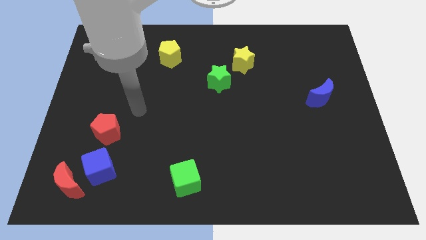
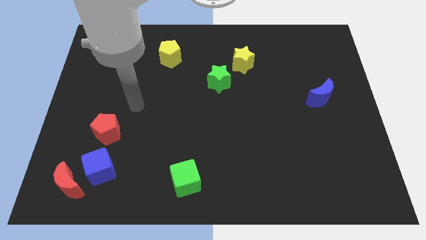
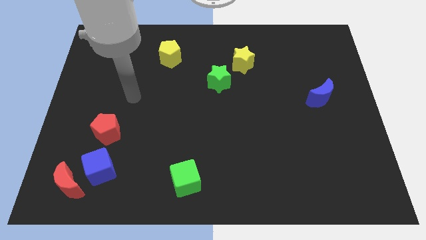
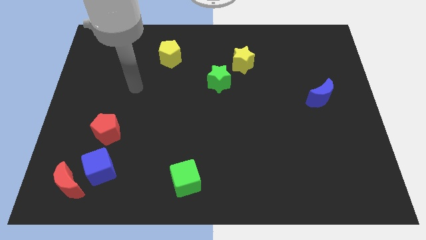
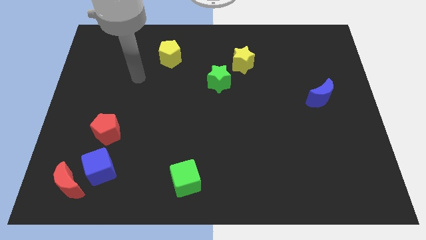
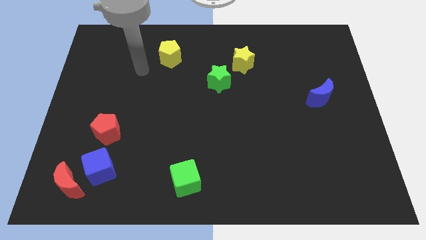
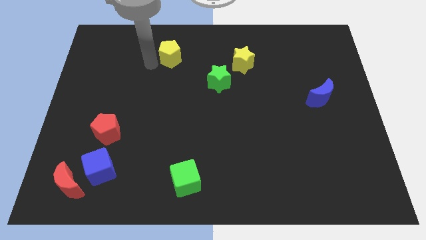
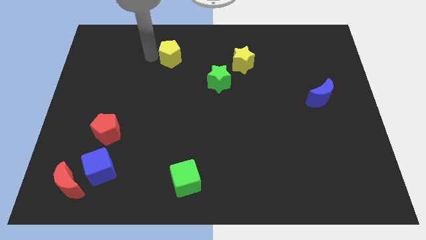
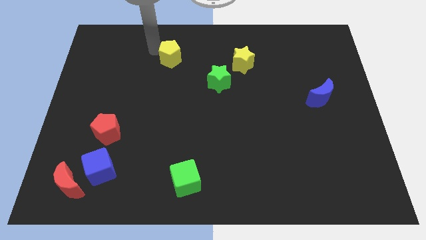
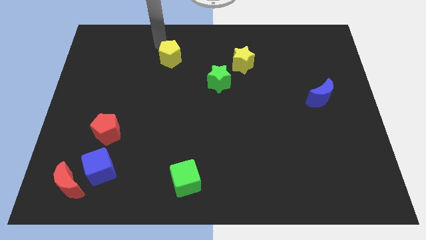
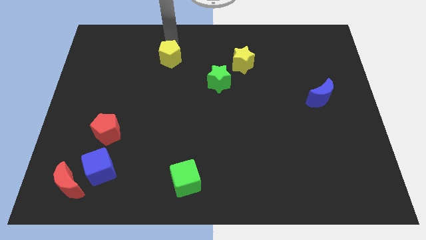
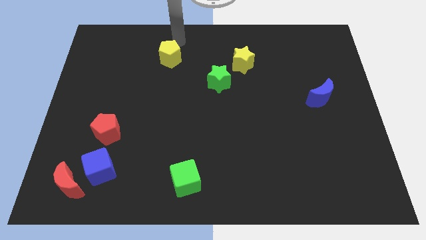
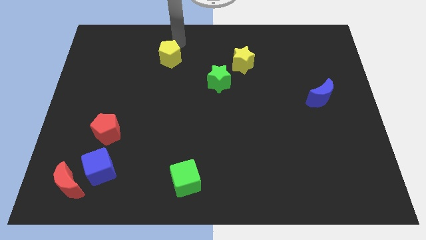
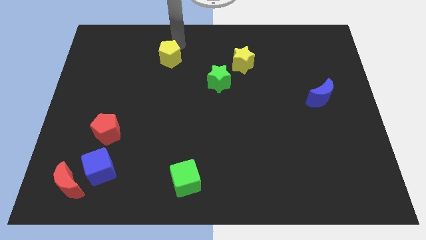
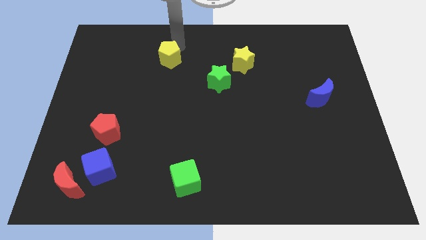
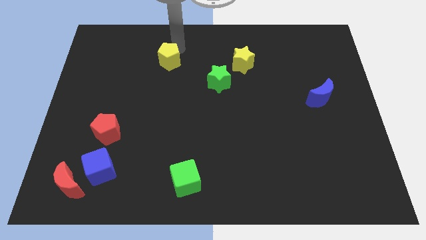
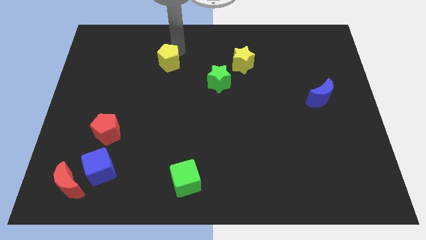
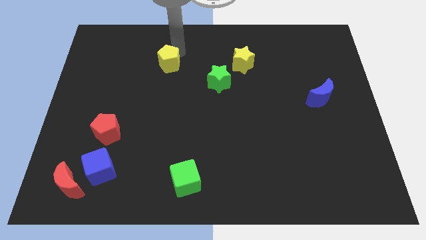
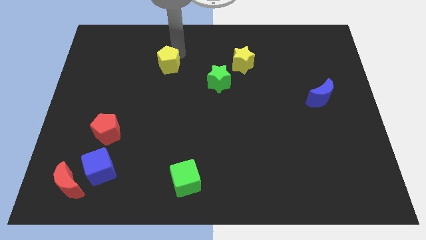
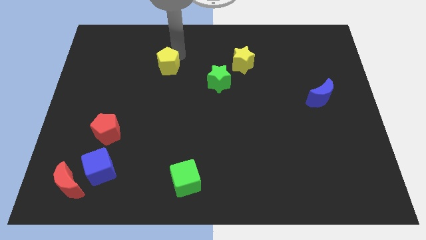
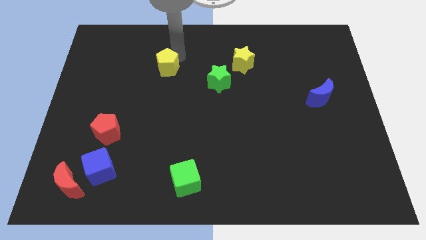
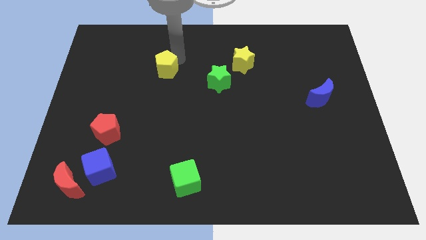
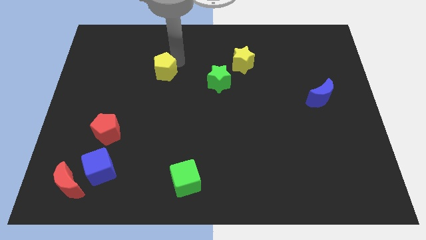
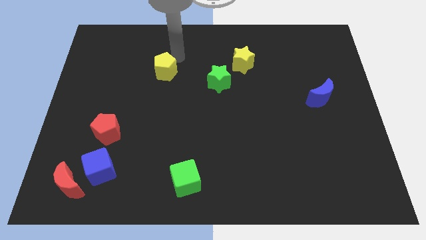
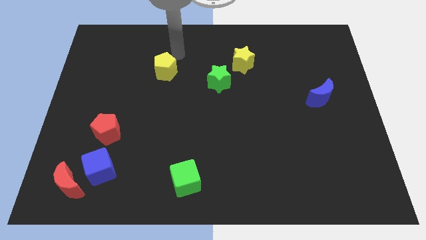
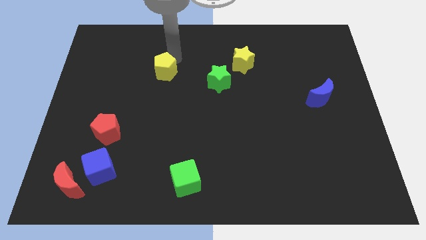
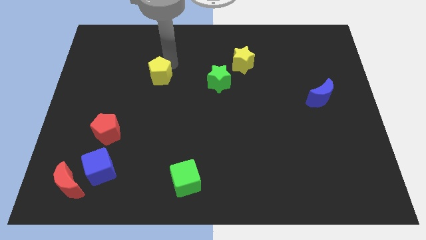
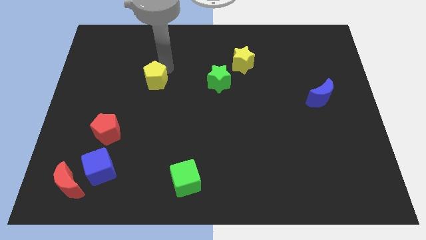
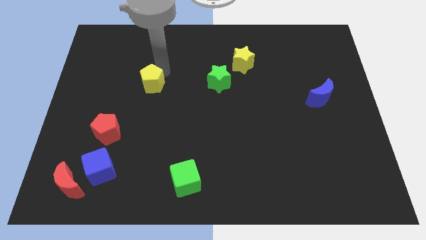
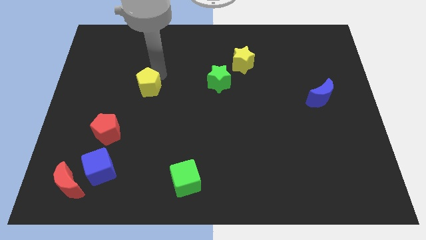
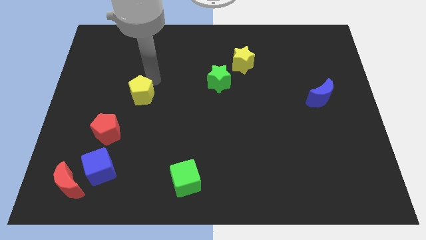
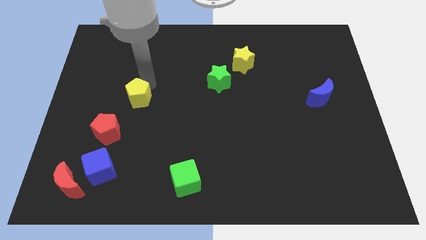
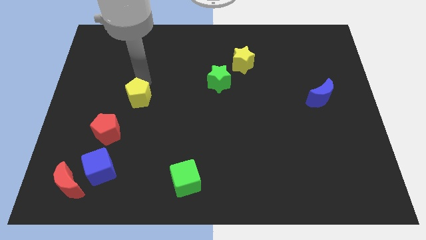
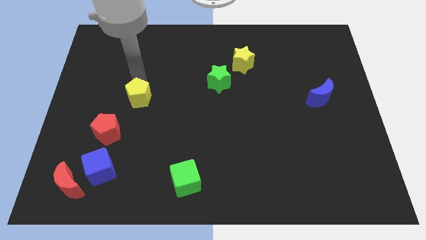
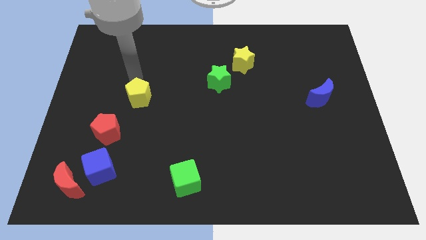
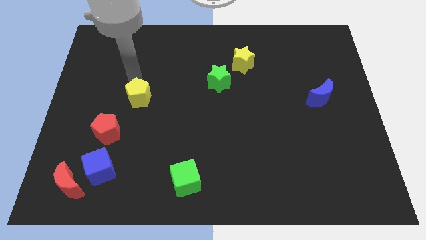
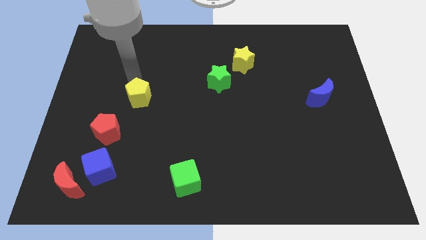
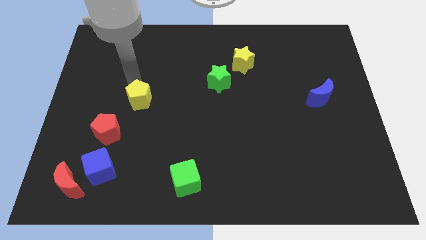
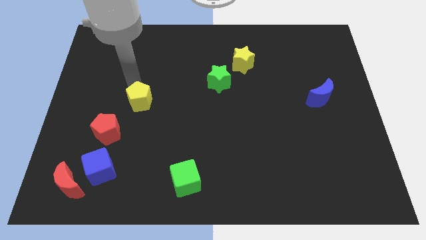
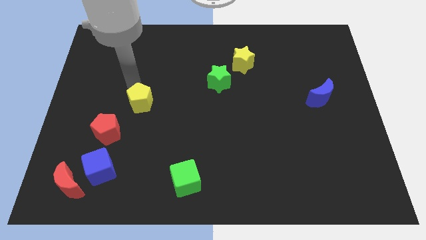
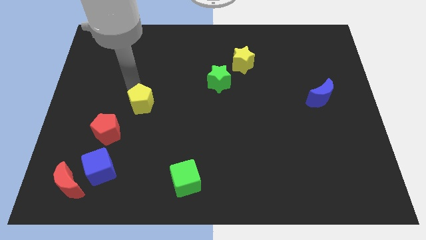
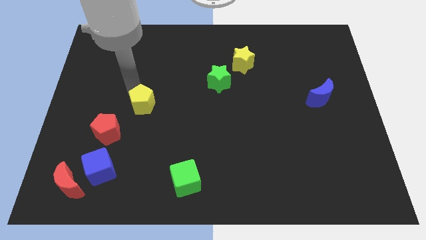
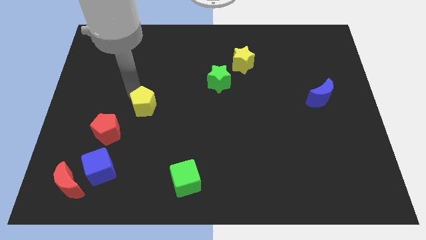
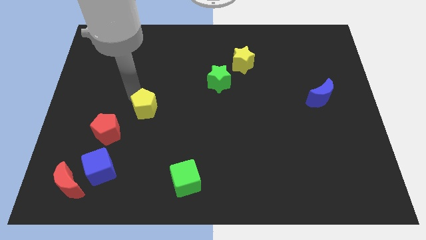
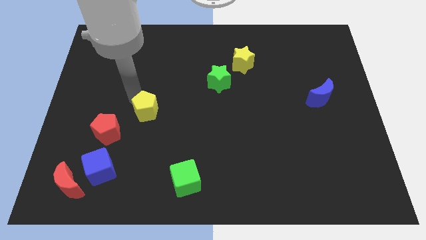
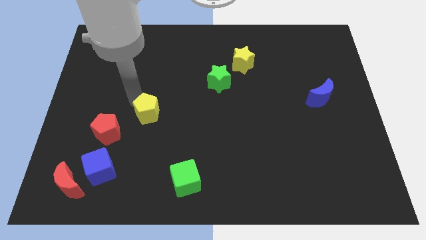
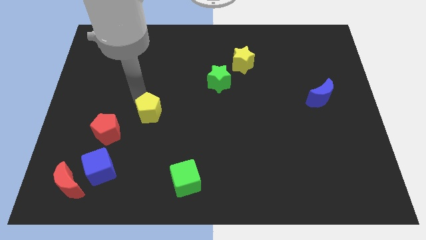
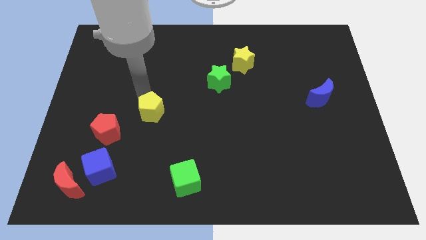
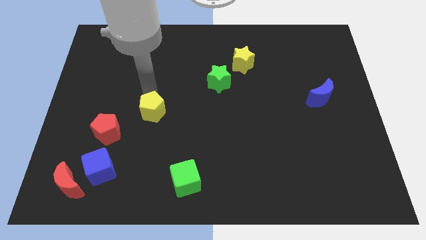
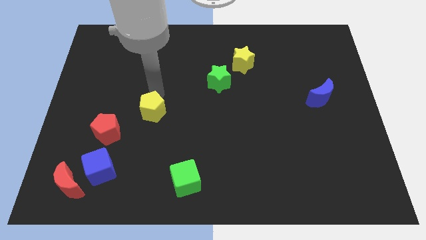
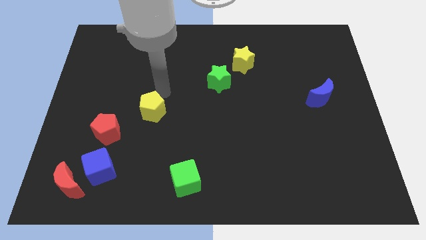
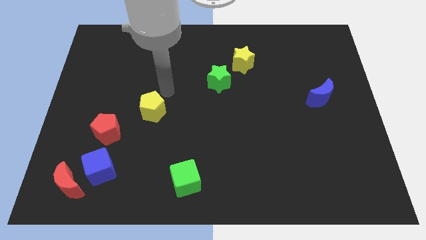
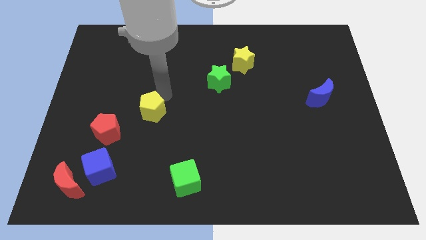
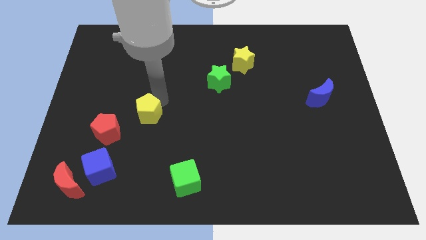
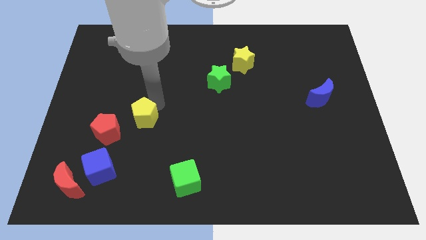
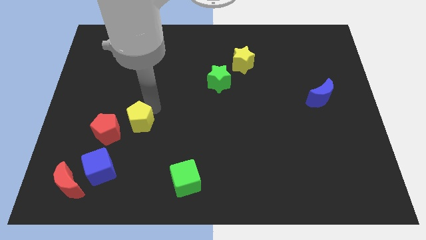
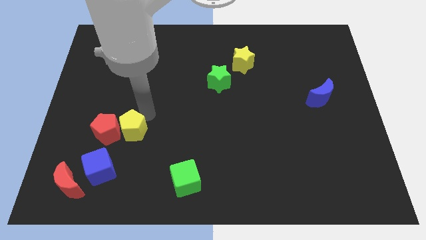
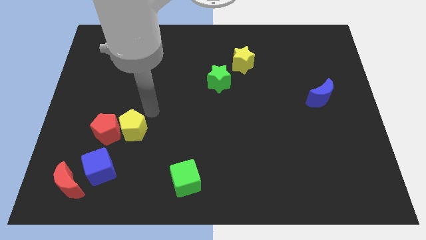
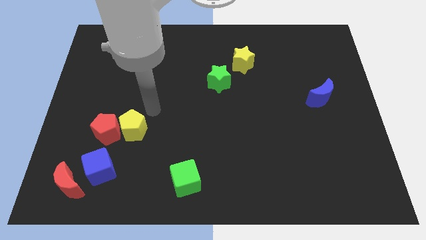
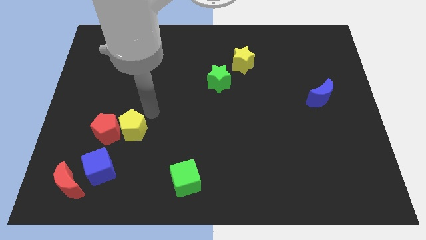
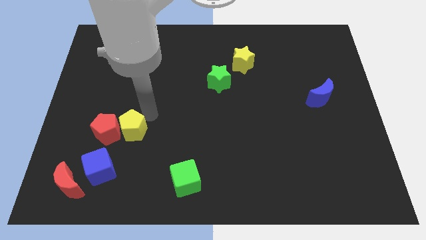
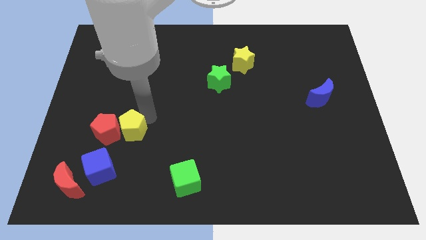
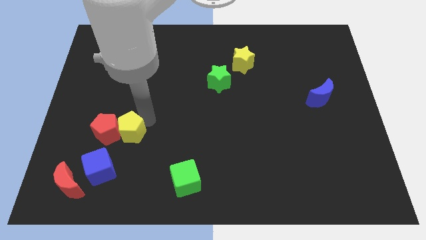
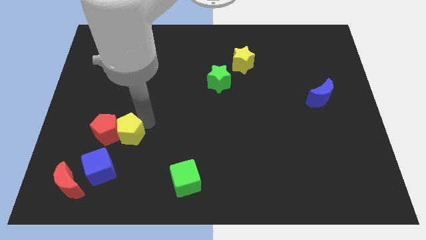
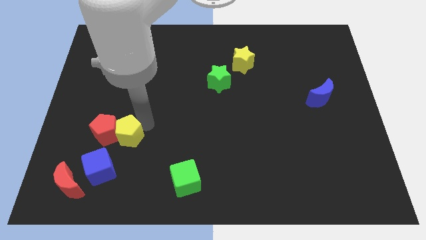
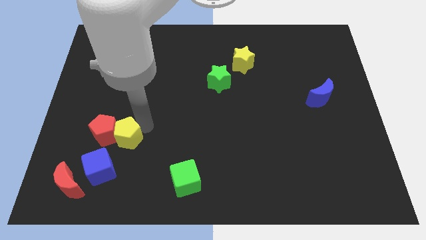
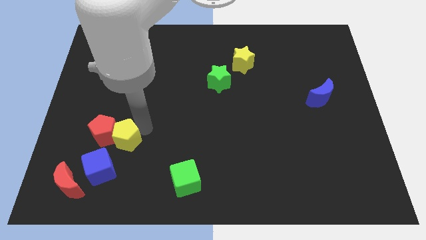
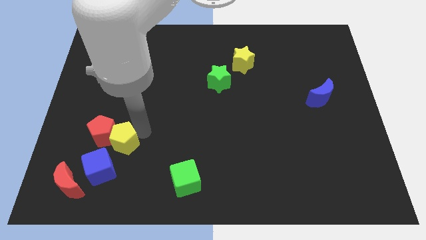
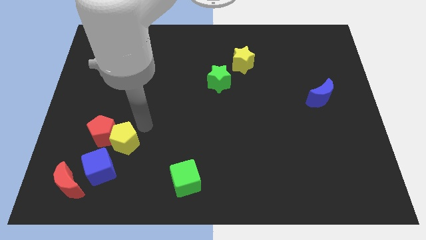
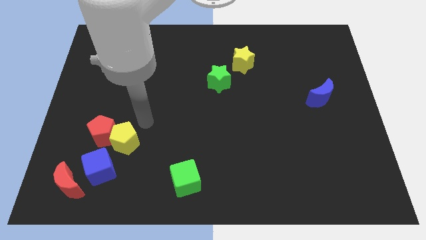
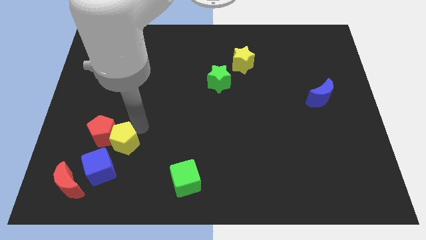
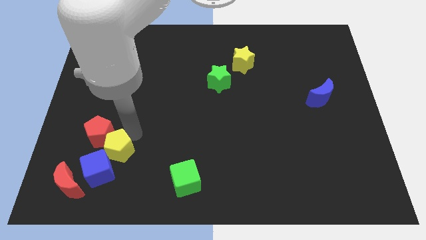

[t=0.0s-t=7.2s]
push the yellow pentagon towards the blue cube
